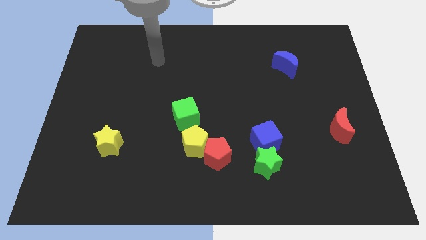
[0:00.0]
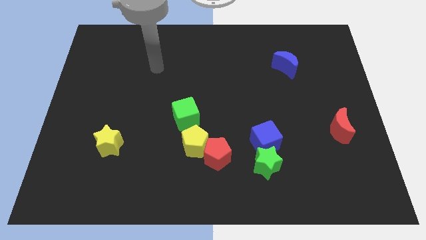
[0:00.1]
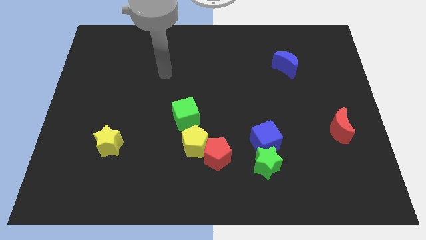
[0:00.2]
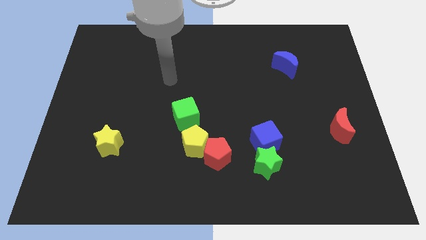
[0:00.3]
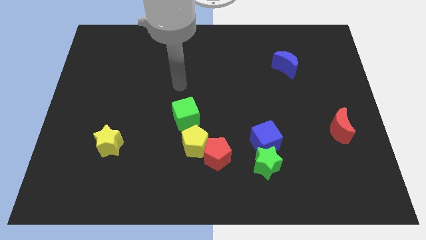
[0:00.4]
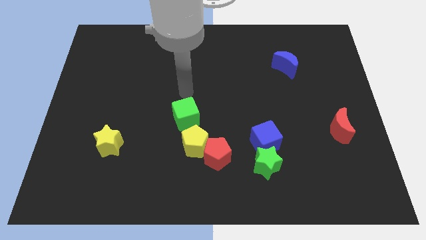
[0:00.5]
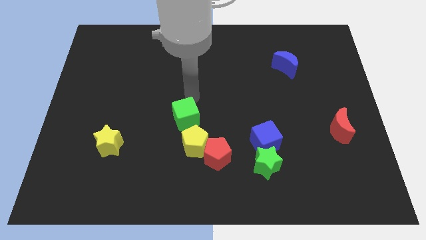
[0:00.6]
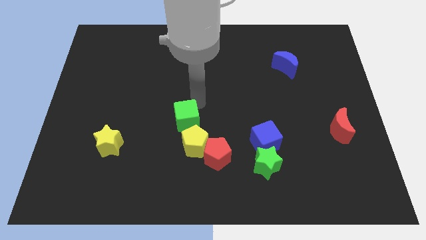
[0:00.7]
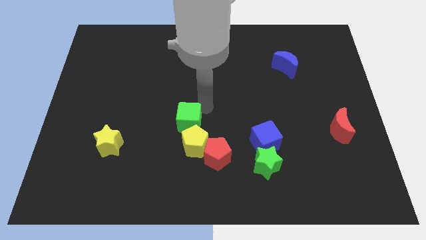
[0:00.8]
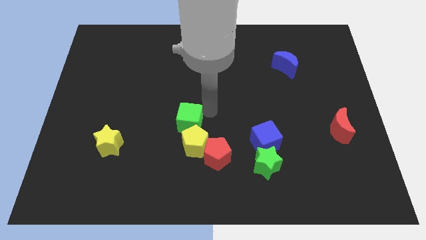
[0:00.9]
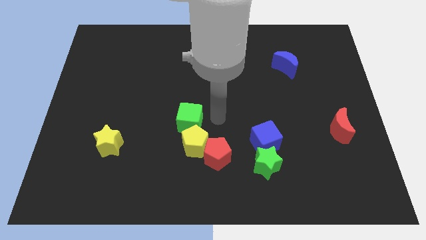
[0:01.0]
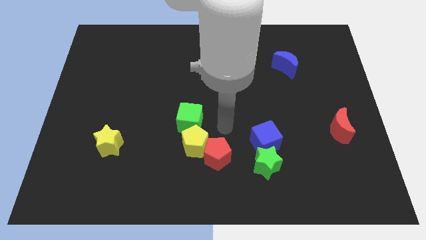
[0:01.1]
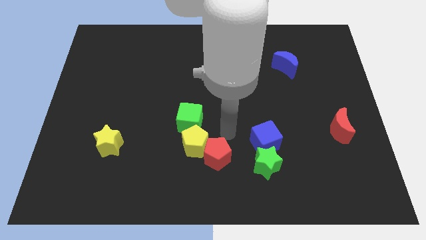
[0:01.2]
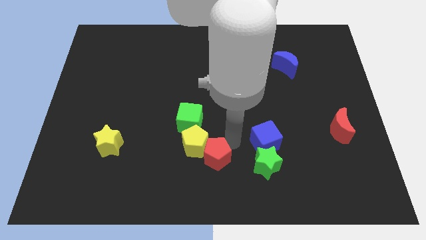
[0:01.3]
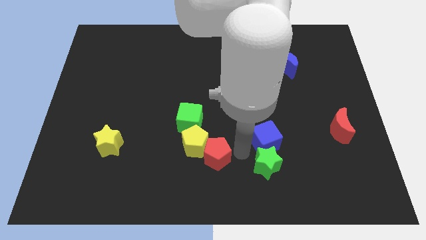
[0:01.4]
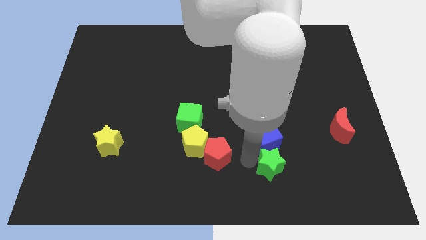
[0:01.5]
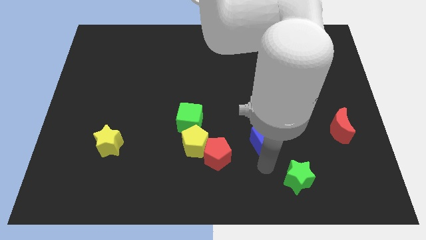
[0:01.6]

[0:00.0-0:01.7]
pull the blue cube apart from the green star

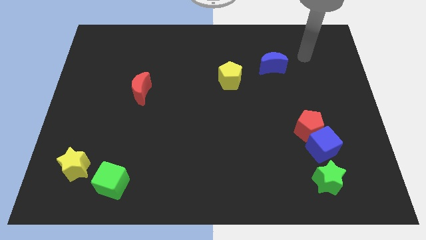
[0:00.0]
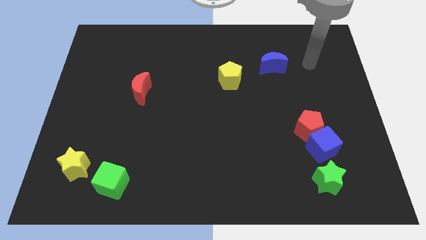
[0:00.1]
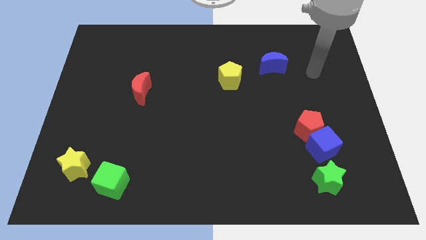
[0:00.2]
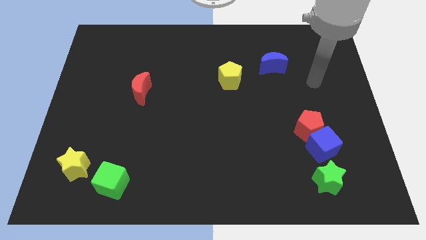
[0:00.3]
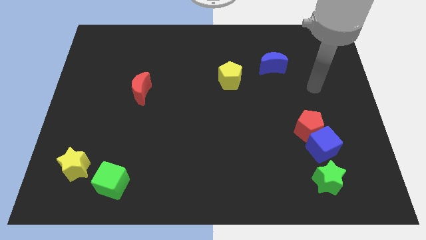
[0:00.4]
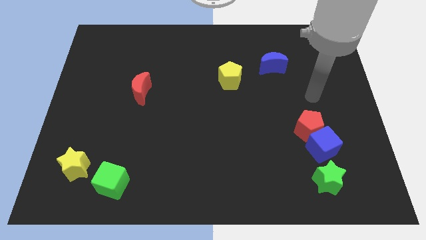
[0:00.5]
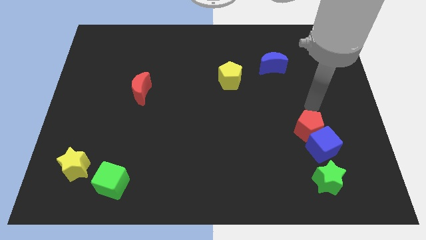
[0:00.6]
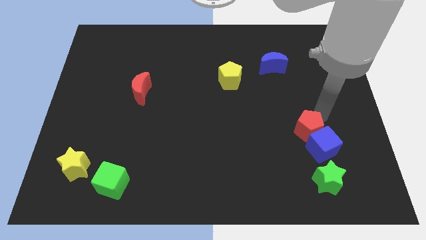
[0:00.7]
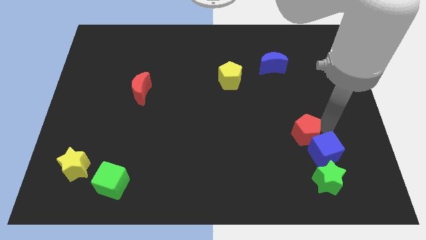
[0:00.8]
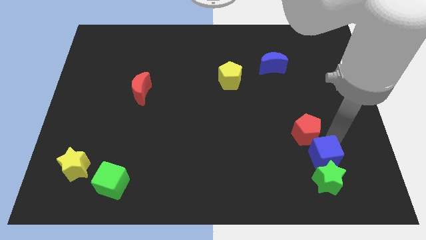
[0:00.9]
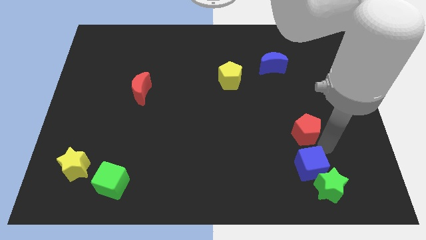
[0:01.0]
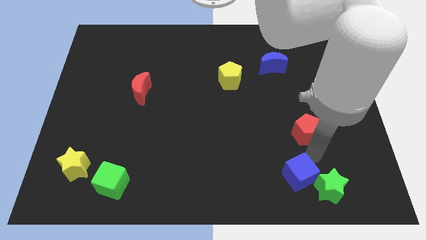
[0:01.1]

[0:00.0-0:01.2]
pull the red pentagon apart from the blue cube

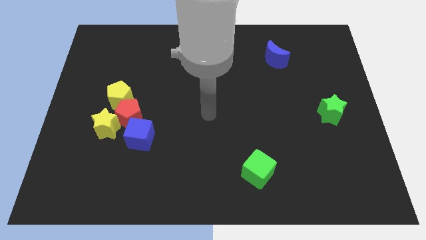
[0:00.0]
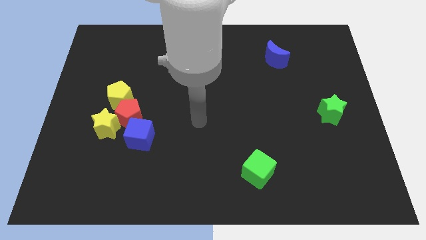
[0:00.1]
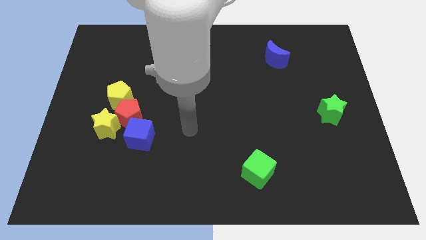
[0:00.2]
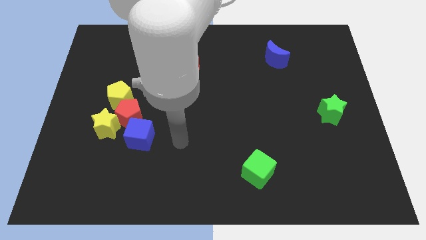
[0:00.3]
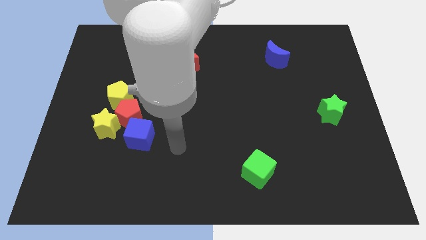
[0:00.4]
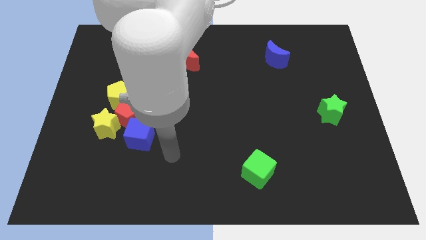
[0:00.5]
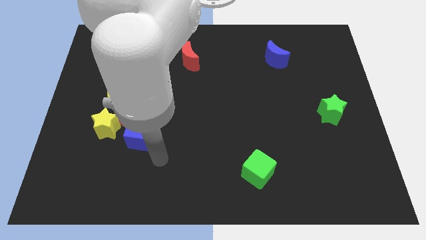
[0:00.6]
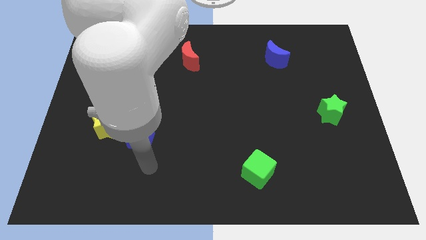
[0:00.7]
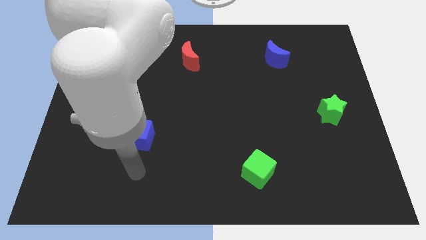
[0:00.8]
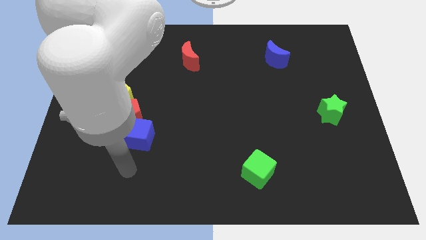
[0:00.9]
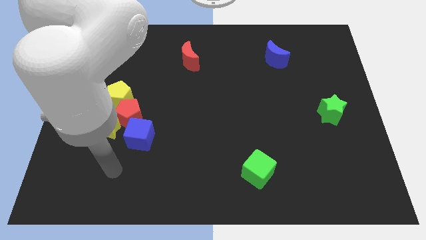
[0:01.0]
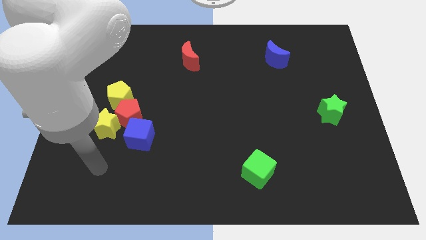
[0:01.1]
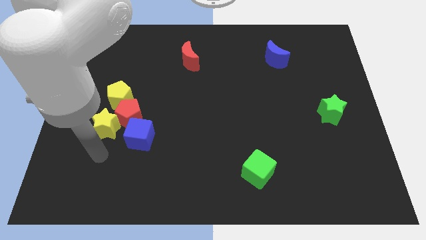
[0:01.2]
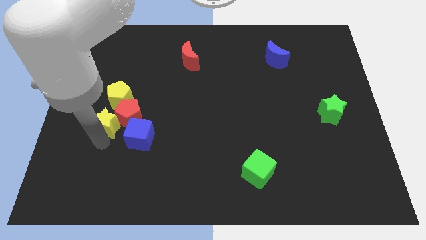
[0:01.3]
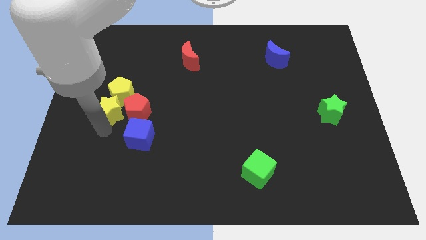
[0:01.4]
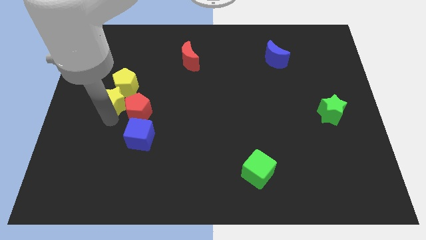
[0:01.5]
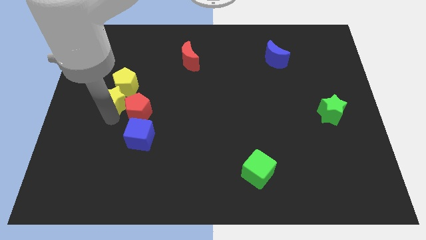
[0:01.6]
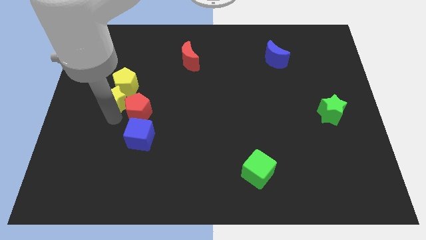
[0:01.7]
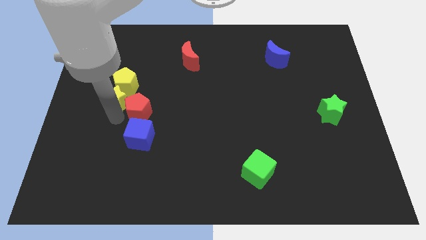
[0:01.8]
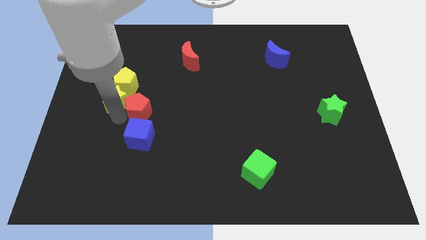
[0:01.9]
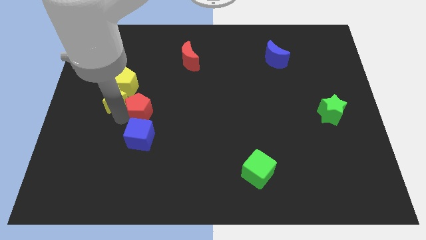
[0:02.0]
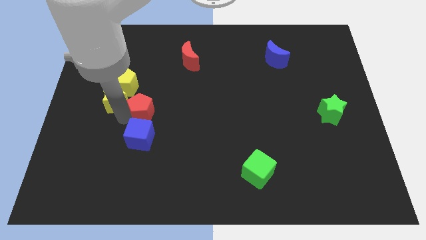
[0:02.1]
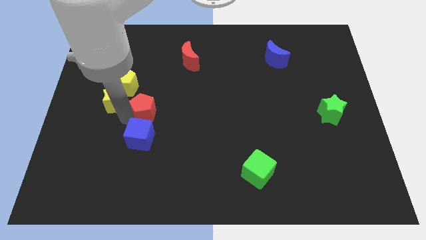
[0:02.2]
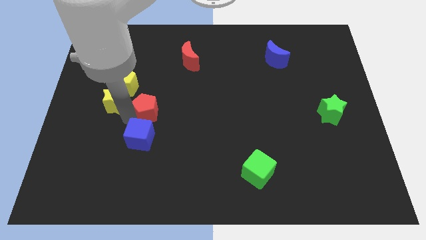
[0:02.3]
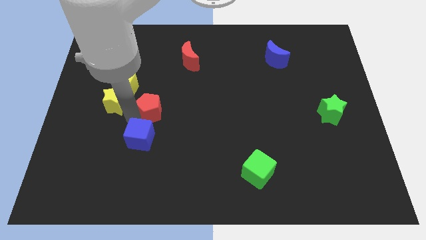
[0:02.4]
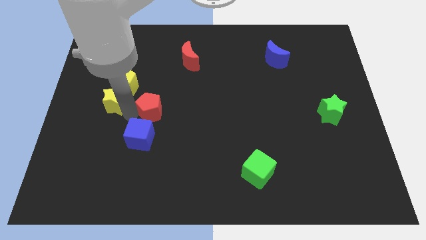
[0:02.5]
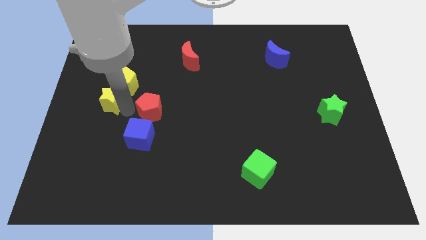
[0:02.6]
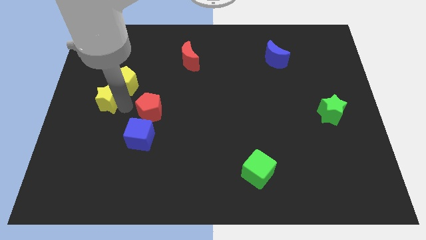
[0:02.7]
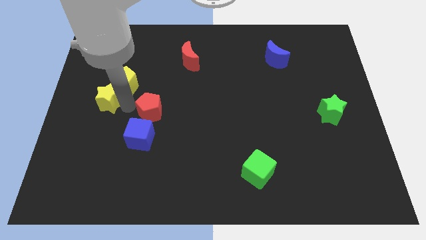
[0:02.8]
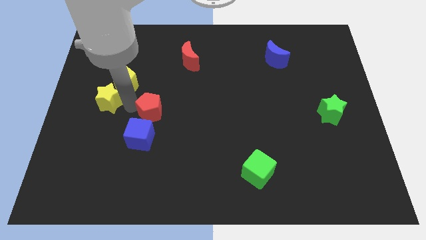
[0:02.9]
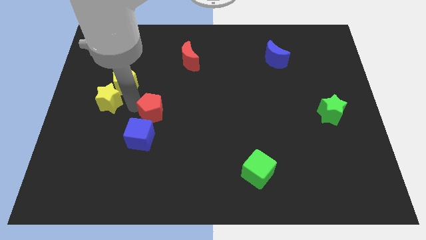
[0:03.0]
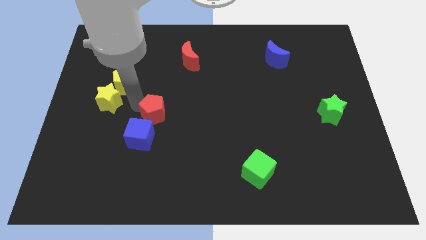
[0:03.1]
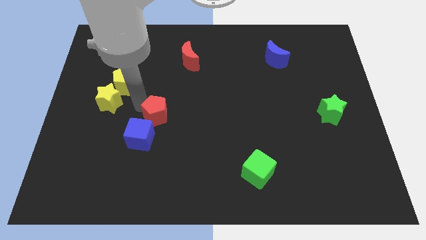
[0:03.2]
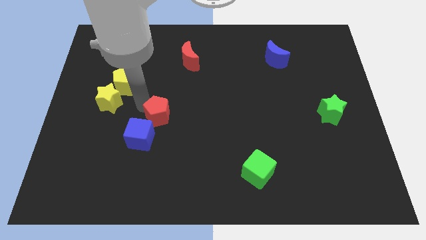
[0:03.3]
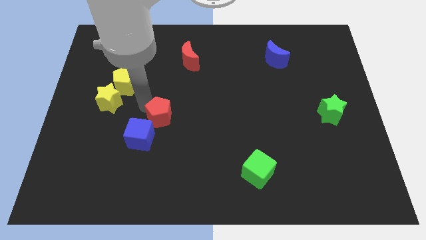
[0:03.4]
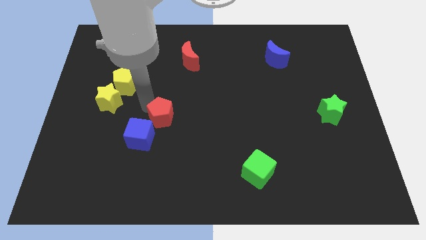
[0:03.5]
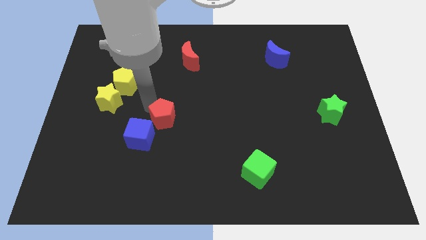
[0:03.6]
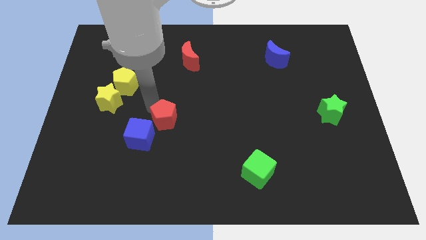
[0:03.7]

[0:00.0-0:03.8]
move the red pentagon away from the group of blocks

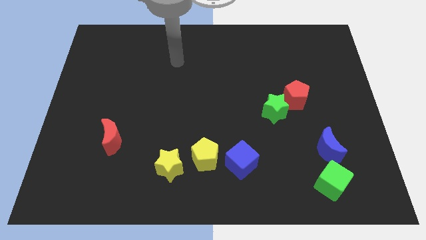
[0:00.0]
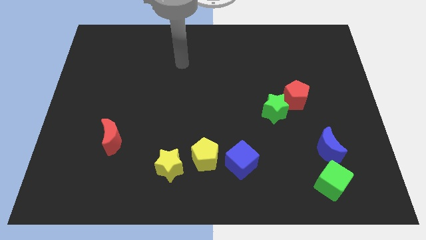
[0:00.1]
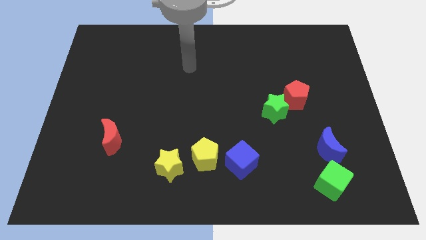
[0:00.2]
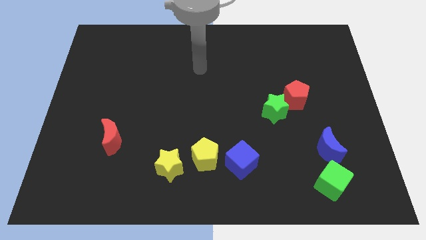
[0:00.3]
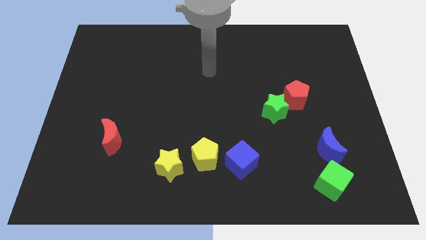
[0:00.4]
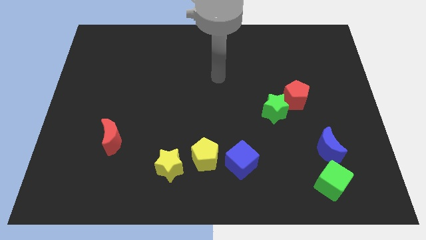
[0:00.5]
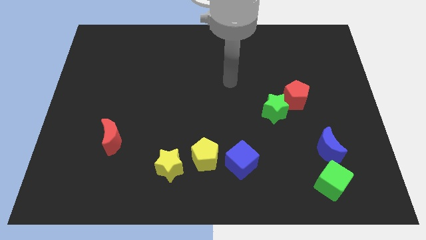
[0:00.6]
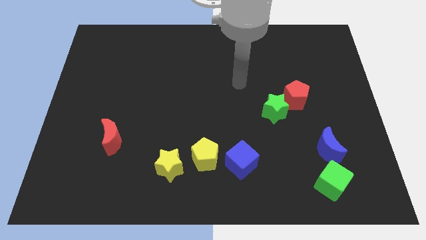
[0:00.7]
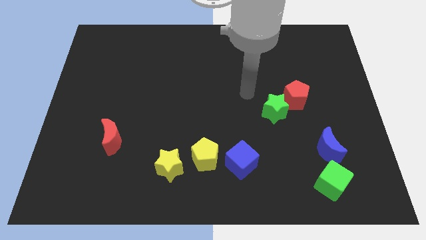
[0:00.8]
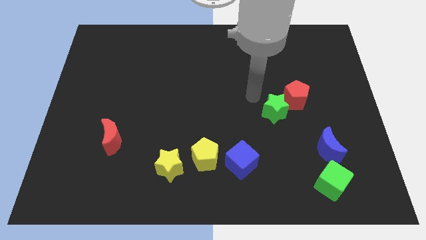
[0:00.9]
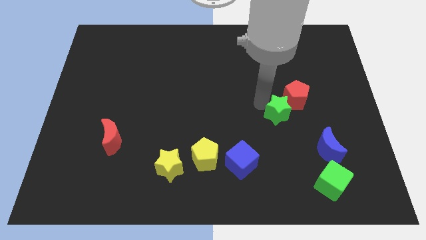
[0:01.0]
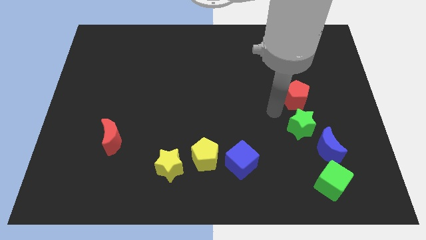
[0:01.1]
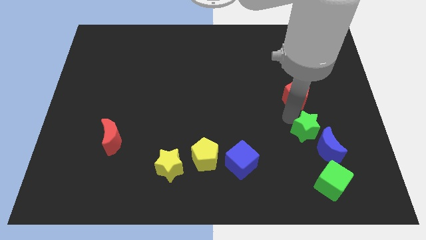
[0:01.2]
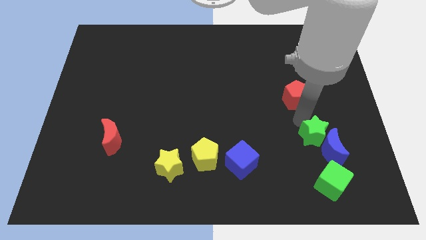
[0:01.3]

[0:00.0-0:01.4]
move the red pentagon away from the green star

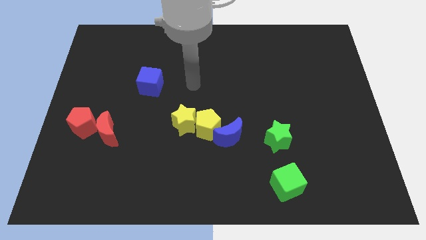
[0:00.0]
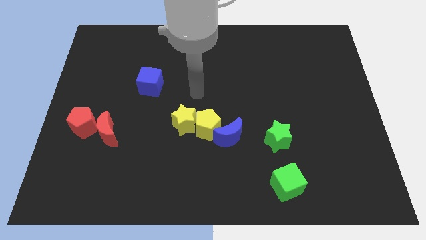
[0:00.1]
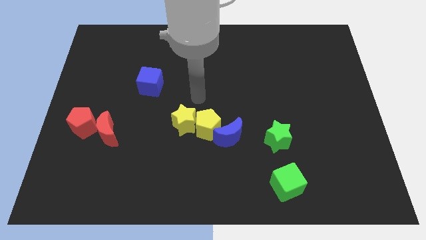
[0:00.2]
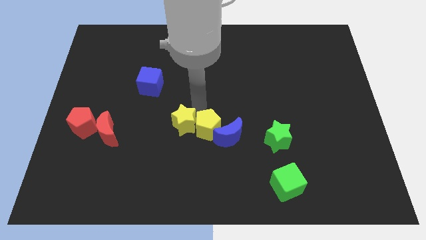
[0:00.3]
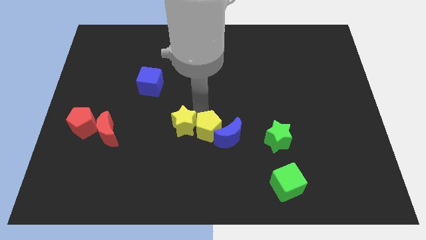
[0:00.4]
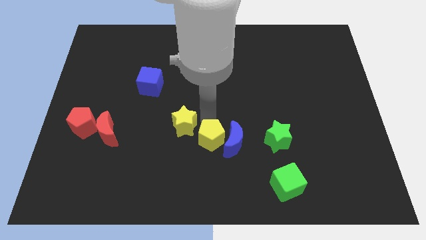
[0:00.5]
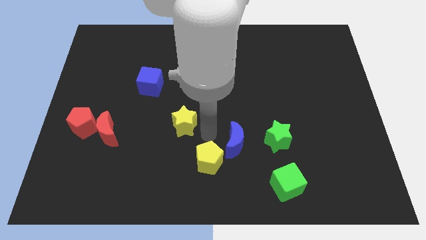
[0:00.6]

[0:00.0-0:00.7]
separate the yellow star from the yellow pentagon

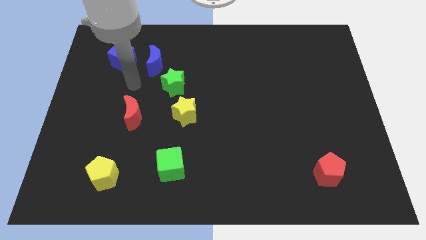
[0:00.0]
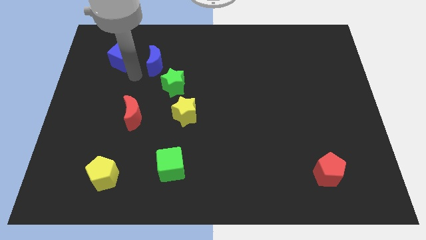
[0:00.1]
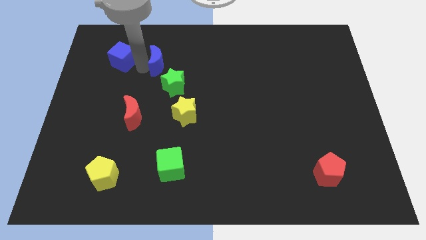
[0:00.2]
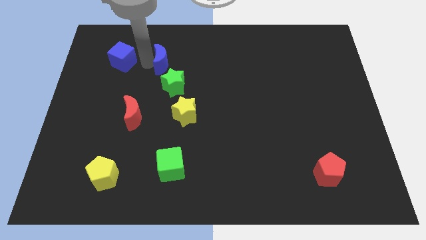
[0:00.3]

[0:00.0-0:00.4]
move the blue cube away from the blue moon

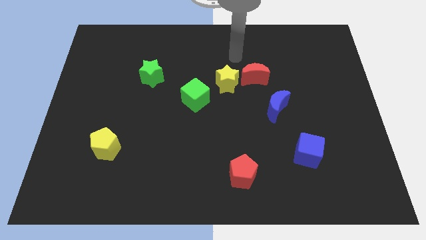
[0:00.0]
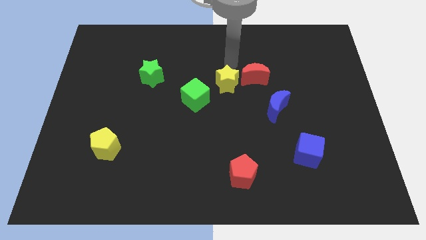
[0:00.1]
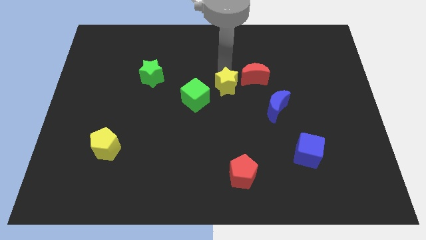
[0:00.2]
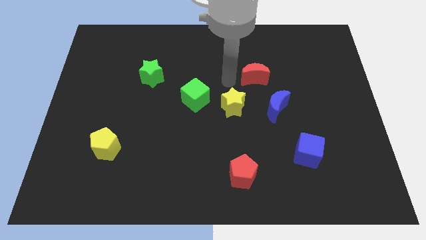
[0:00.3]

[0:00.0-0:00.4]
pull the red moon apart from the yellow star
